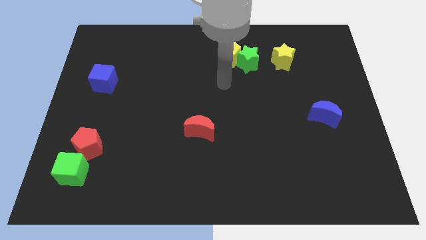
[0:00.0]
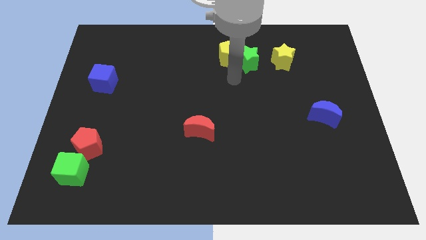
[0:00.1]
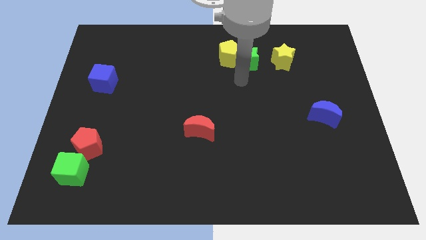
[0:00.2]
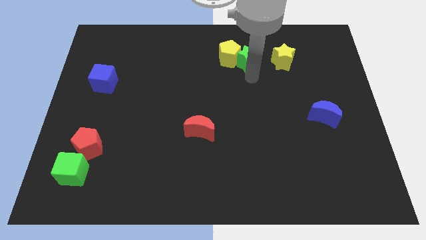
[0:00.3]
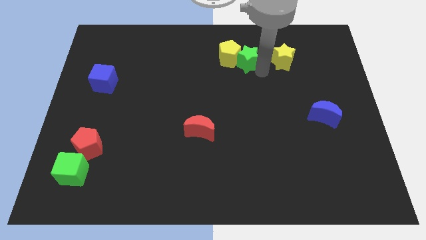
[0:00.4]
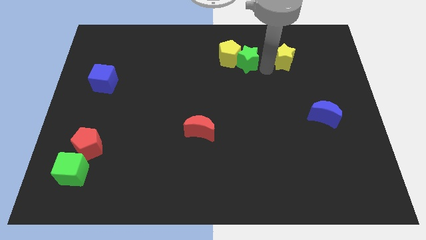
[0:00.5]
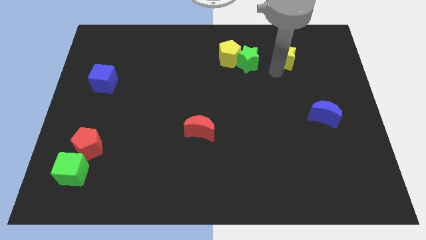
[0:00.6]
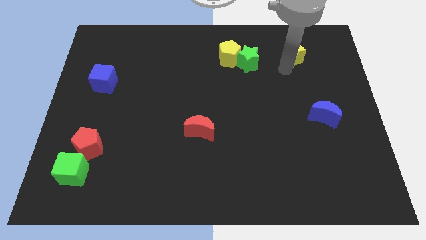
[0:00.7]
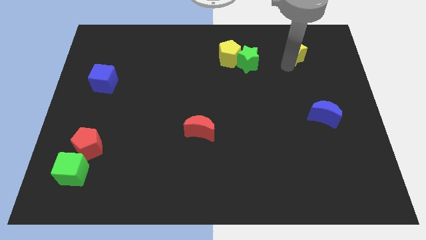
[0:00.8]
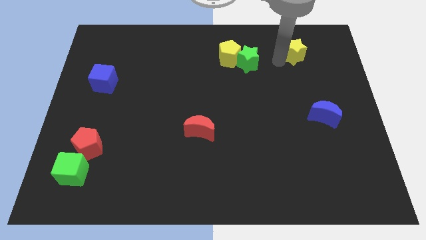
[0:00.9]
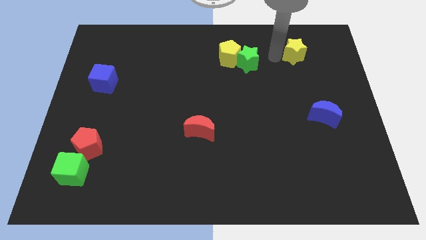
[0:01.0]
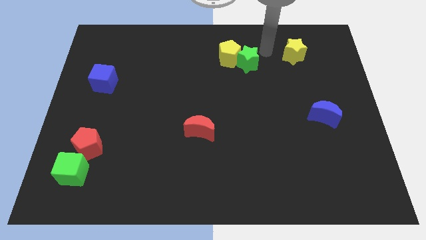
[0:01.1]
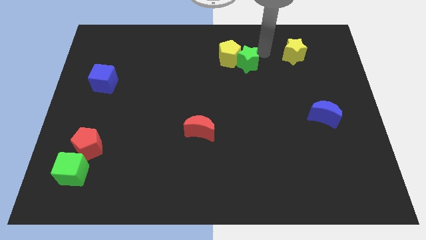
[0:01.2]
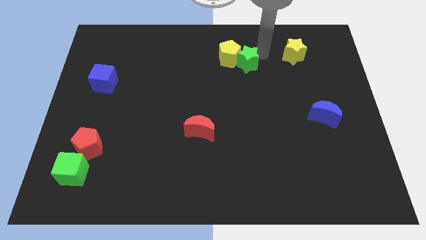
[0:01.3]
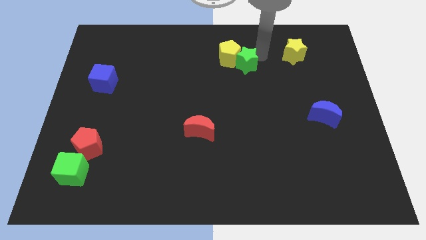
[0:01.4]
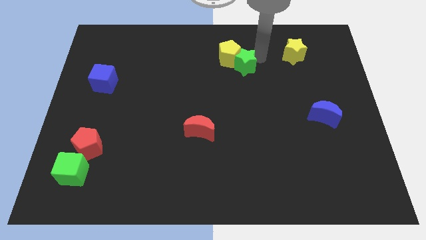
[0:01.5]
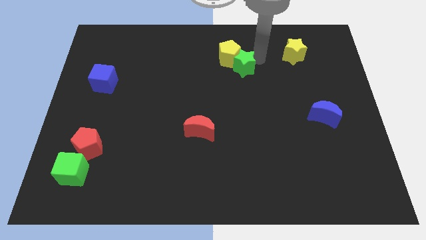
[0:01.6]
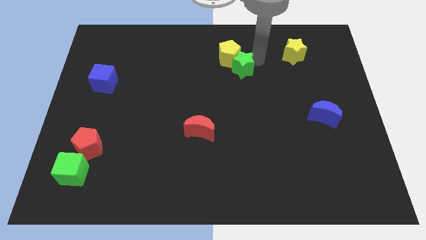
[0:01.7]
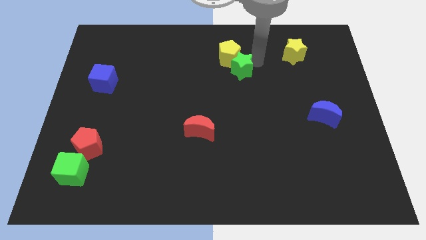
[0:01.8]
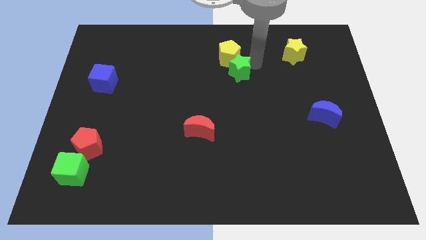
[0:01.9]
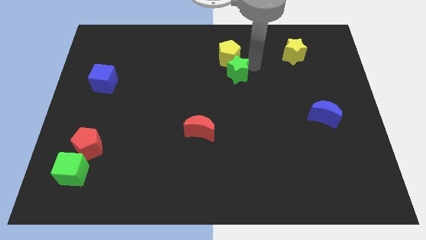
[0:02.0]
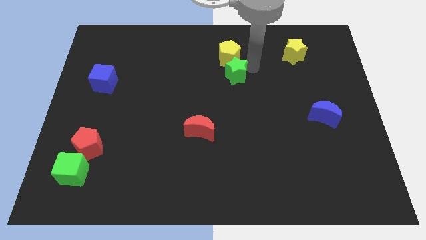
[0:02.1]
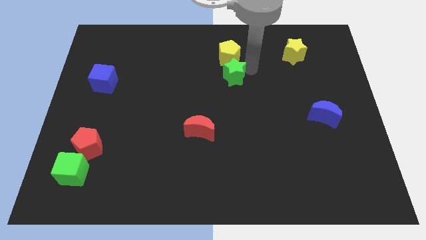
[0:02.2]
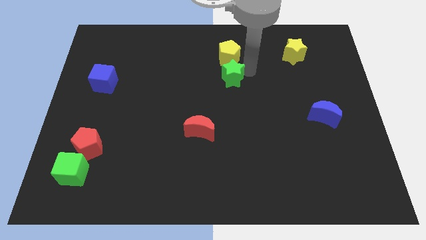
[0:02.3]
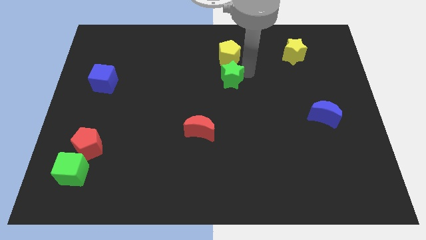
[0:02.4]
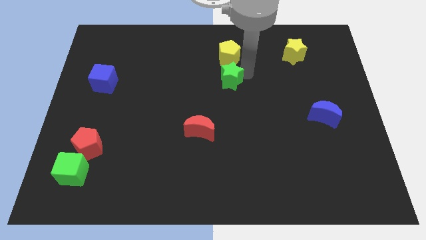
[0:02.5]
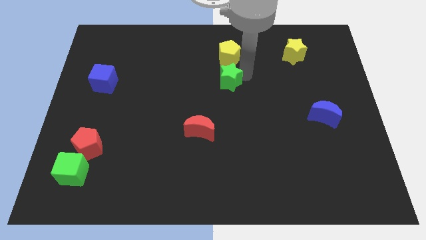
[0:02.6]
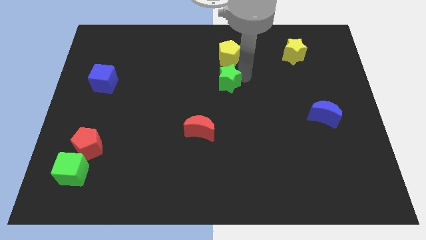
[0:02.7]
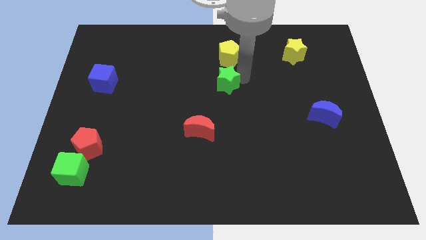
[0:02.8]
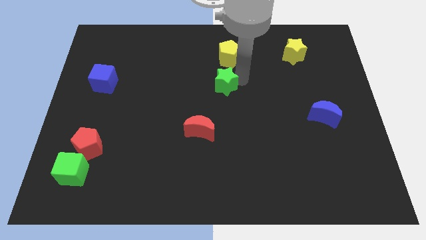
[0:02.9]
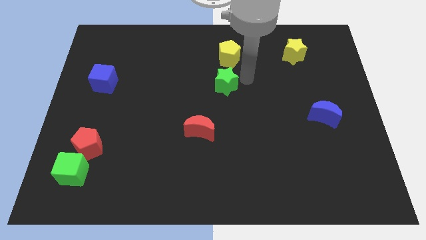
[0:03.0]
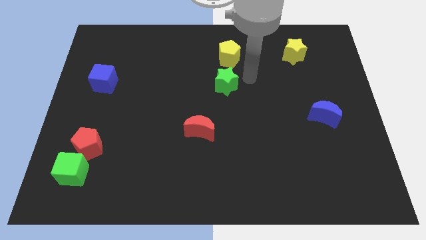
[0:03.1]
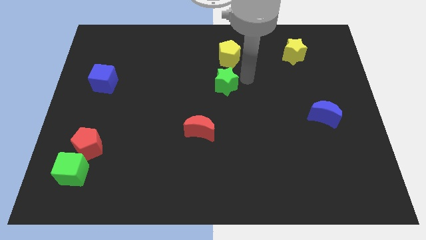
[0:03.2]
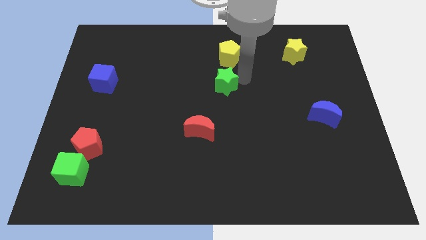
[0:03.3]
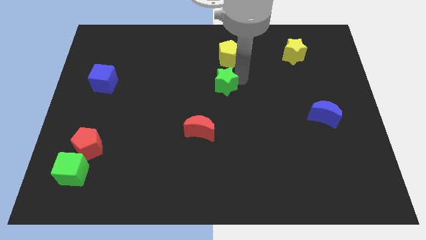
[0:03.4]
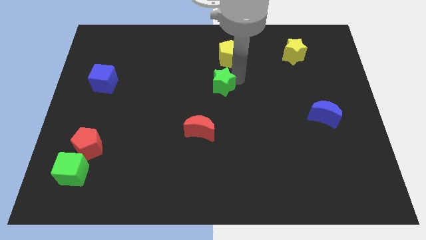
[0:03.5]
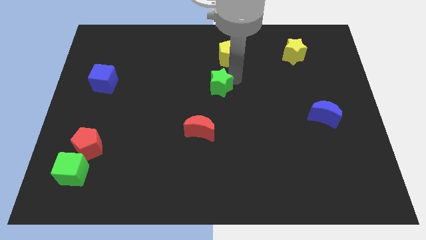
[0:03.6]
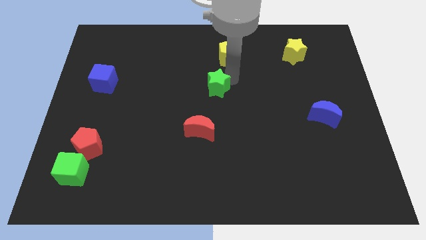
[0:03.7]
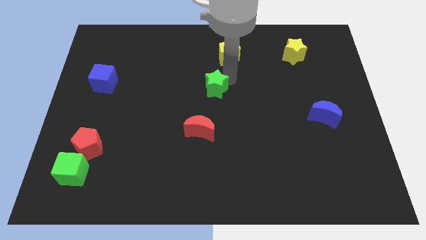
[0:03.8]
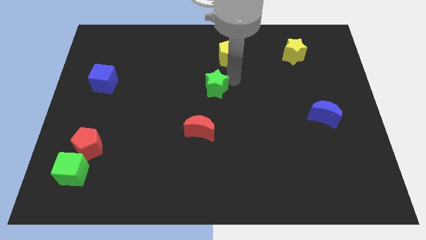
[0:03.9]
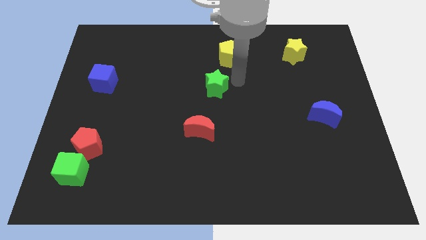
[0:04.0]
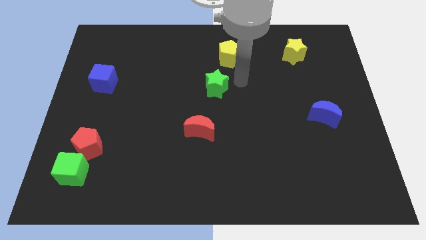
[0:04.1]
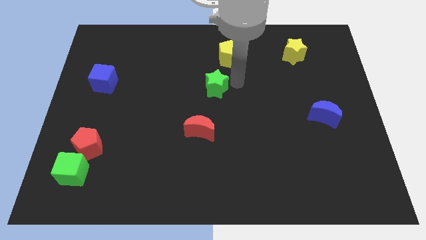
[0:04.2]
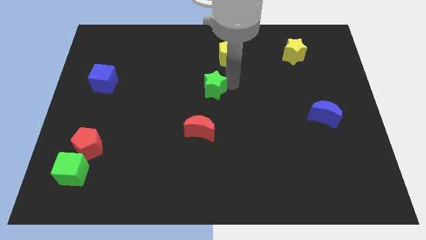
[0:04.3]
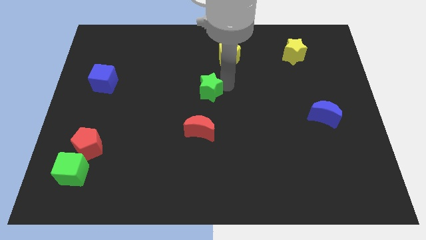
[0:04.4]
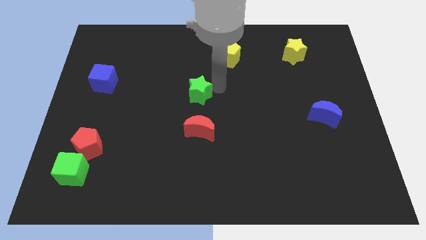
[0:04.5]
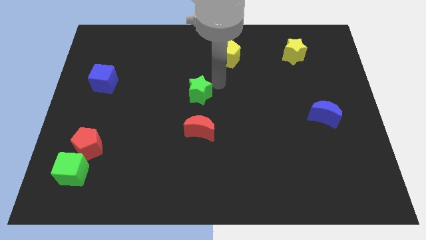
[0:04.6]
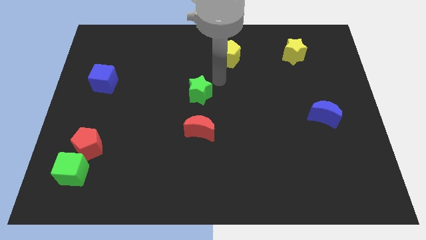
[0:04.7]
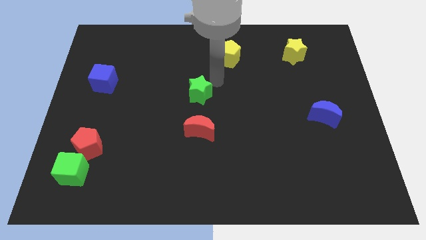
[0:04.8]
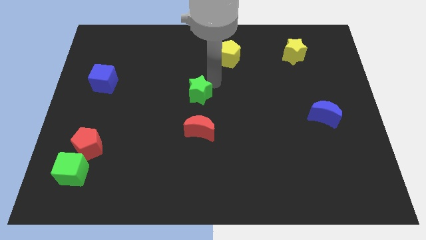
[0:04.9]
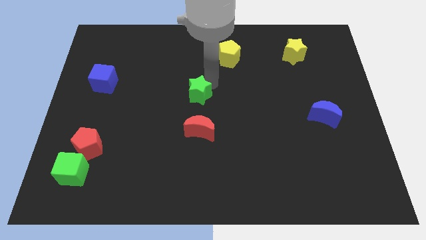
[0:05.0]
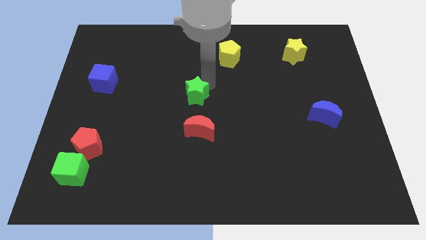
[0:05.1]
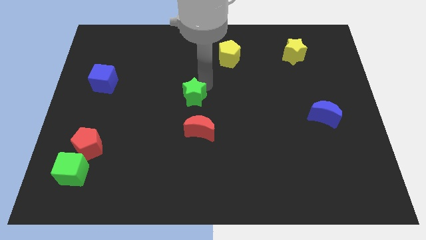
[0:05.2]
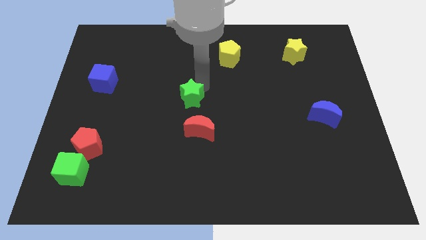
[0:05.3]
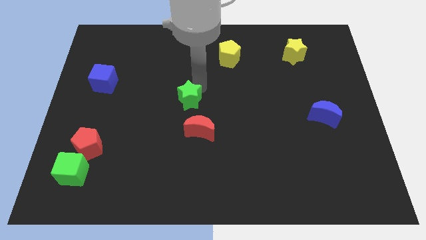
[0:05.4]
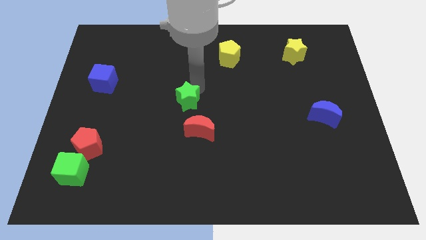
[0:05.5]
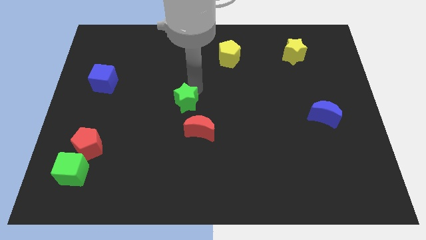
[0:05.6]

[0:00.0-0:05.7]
move the green star diagonally downwards and left

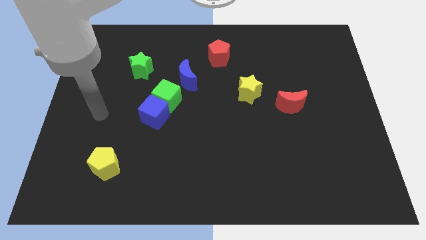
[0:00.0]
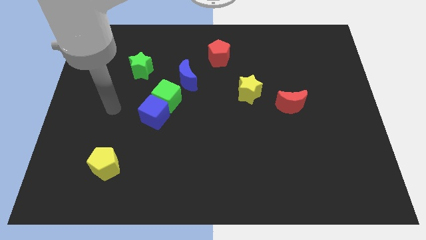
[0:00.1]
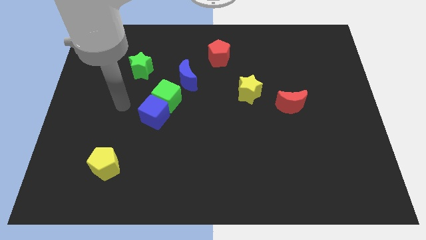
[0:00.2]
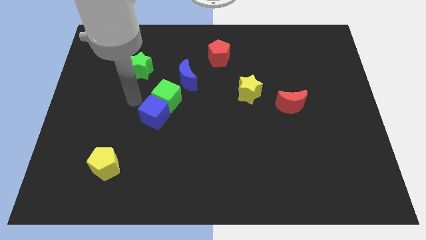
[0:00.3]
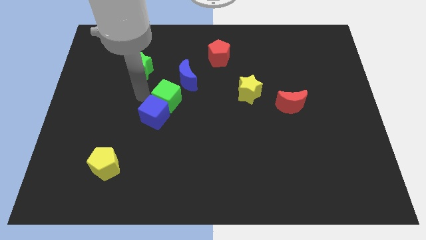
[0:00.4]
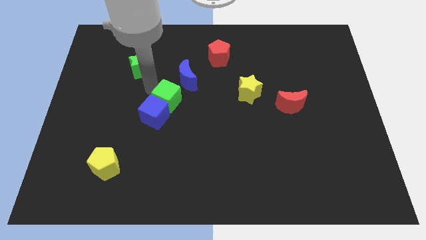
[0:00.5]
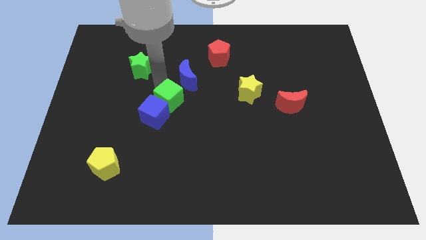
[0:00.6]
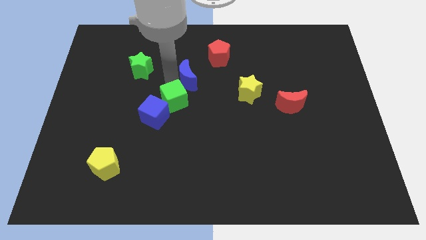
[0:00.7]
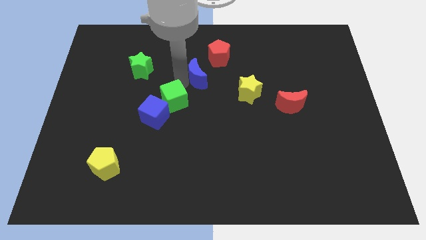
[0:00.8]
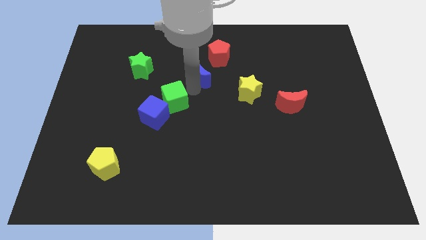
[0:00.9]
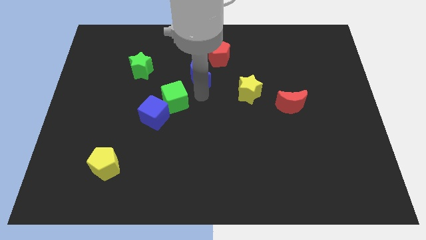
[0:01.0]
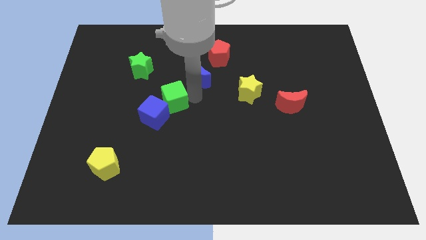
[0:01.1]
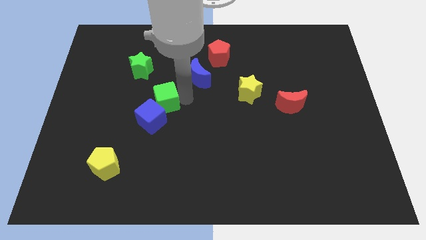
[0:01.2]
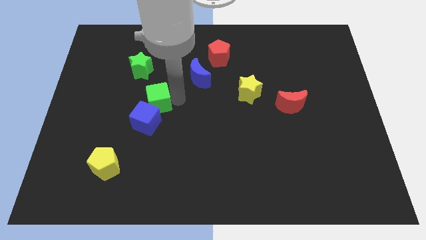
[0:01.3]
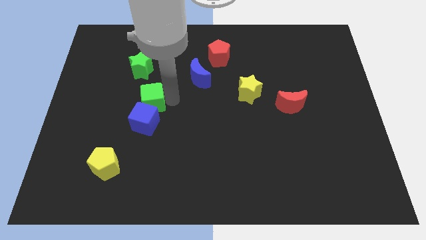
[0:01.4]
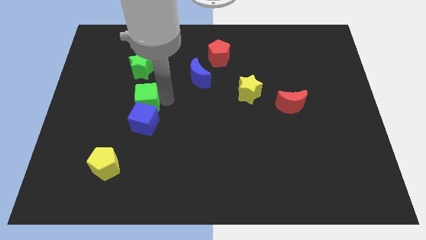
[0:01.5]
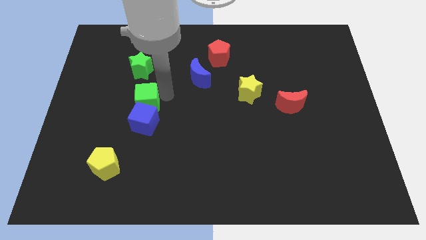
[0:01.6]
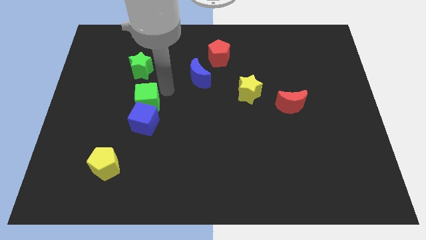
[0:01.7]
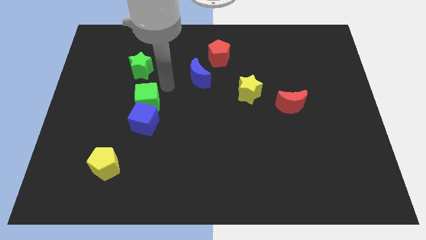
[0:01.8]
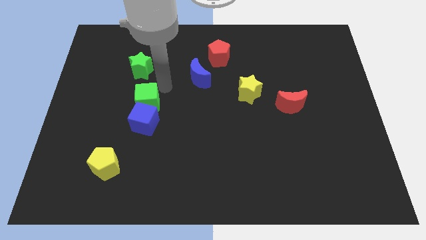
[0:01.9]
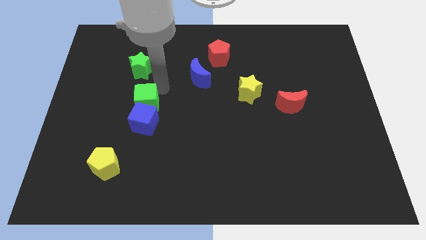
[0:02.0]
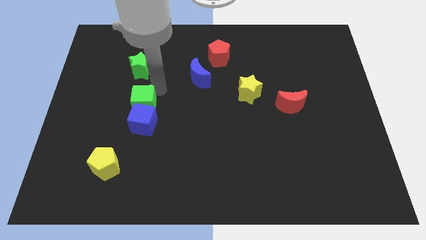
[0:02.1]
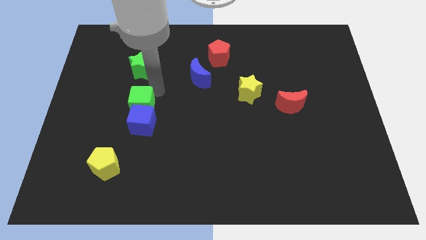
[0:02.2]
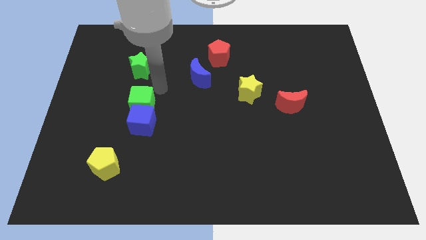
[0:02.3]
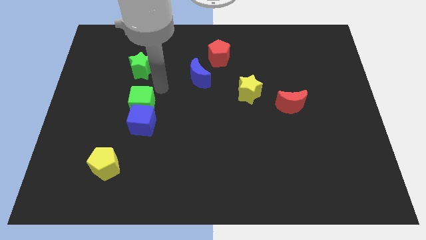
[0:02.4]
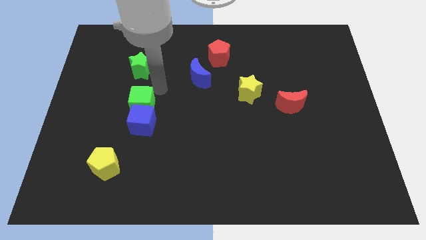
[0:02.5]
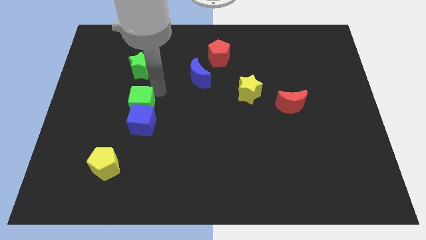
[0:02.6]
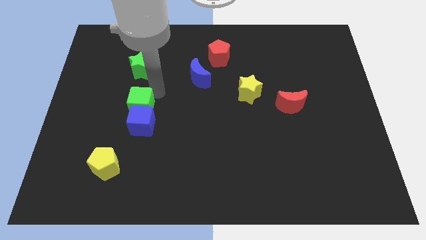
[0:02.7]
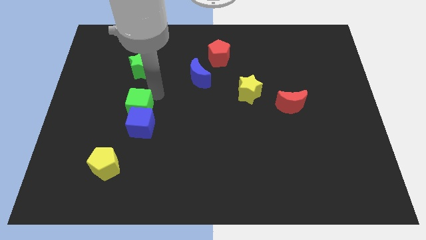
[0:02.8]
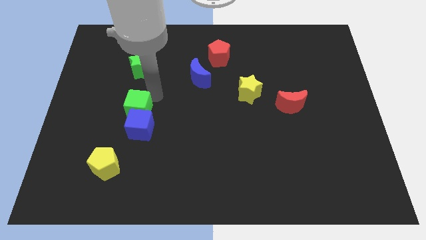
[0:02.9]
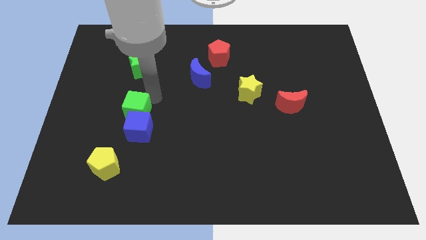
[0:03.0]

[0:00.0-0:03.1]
slightly slide the green cube down and then left
